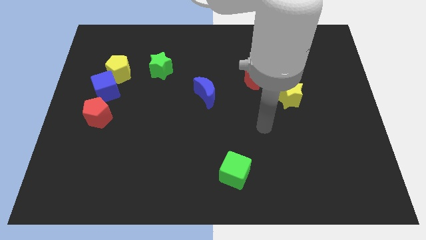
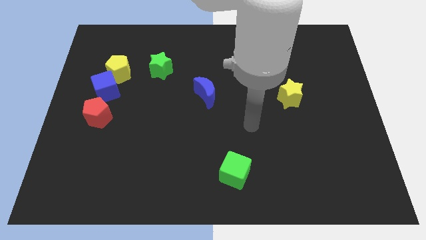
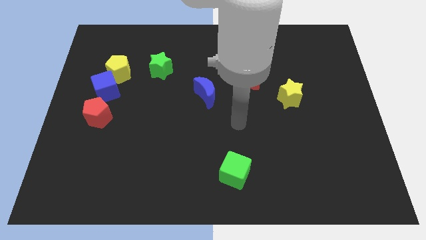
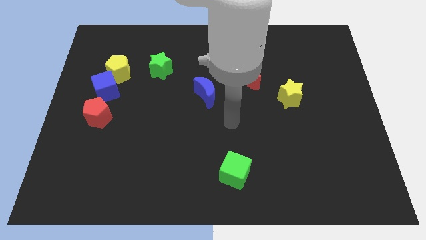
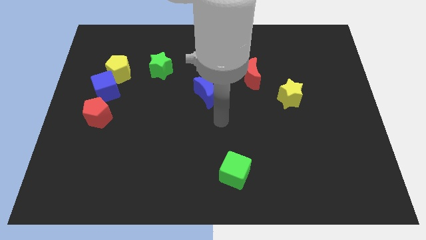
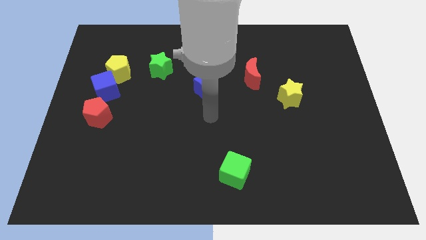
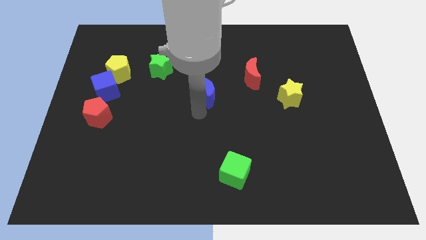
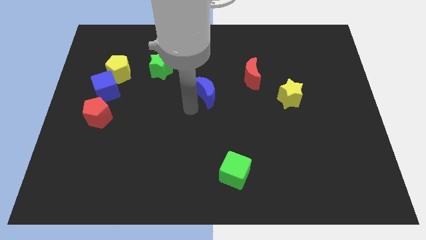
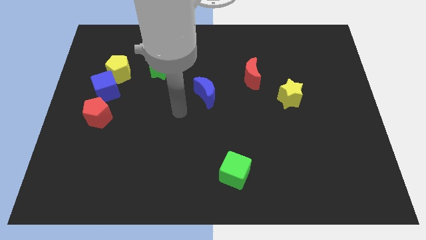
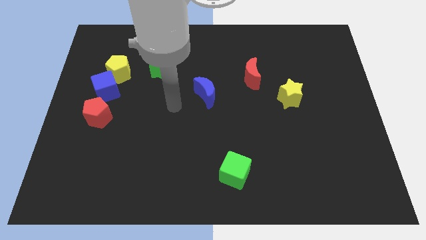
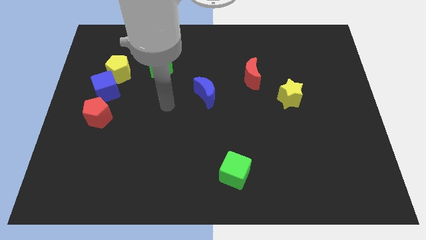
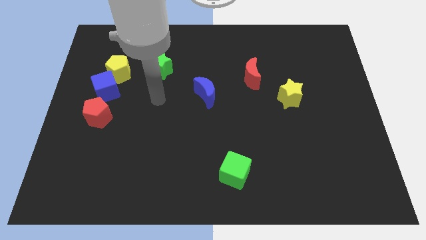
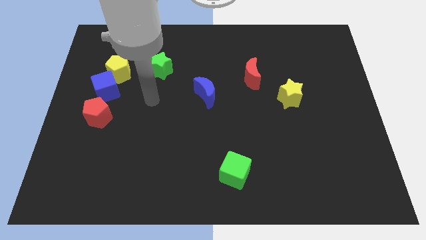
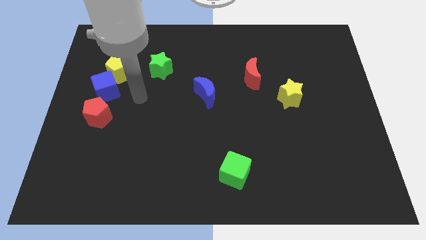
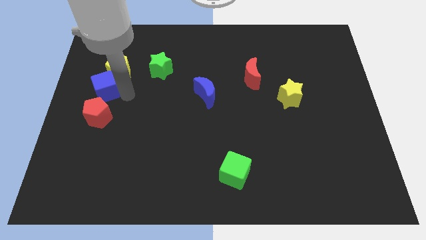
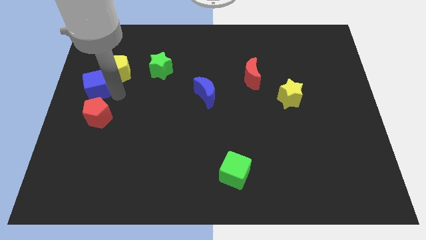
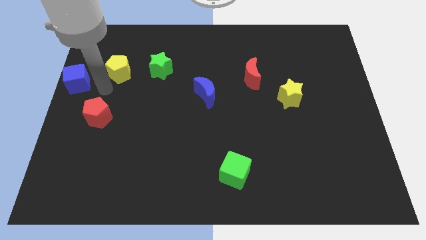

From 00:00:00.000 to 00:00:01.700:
move the yellow pentagon away from the blue cube

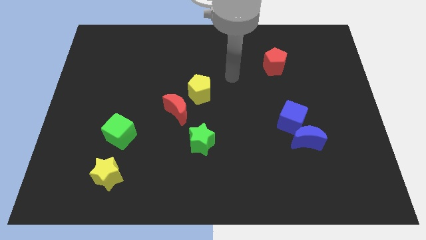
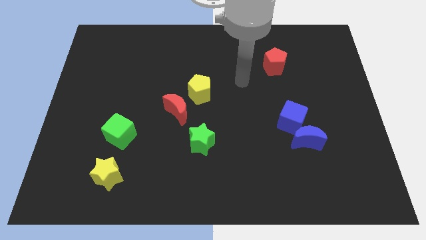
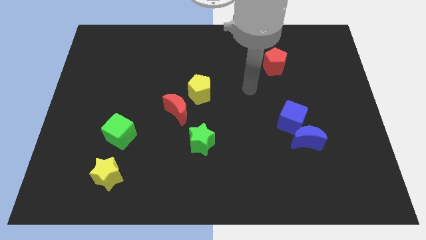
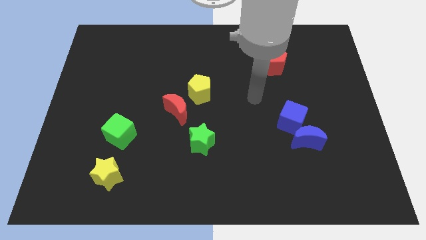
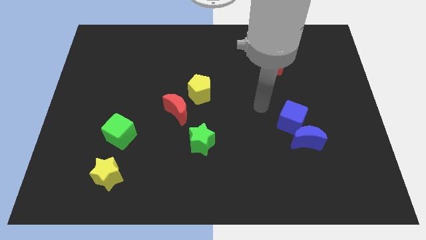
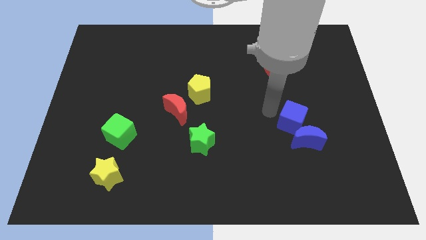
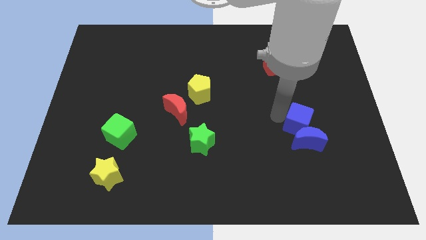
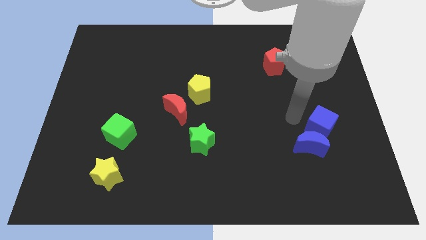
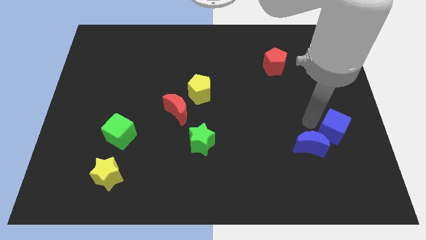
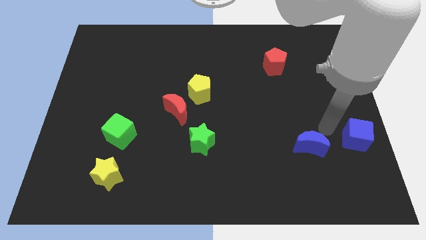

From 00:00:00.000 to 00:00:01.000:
separate the blue moon from the blue cube

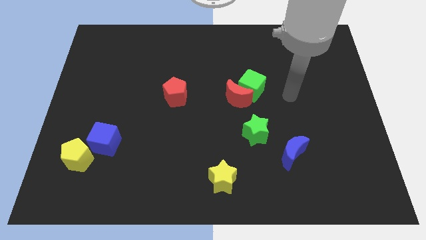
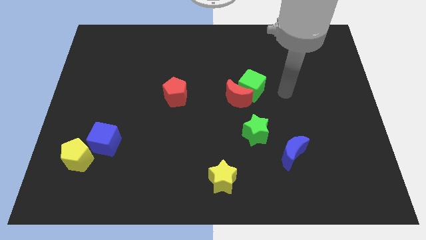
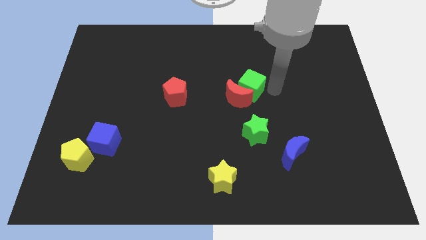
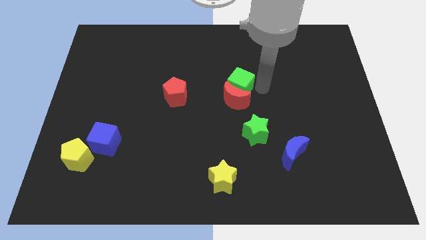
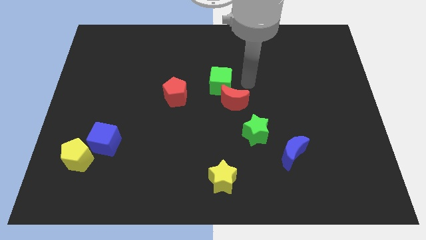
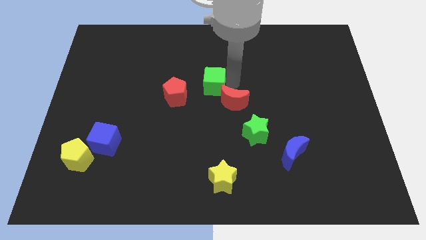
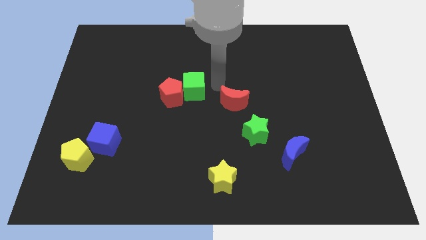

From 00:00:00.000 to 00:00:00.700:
move the red moon away from the green cube

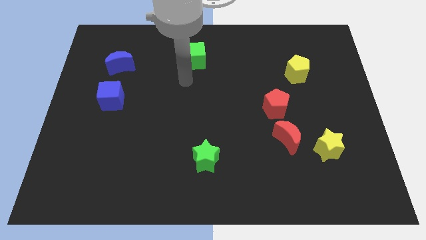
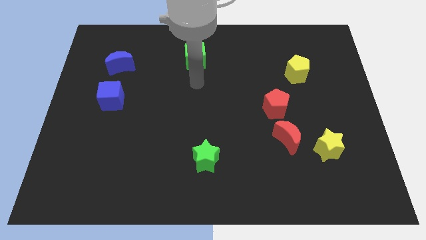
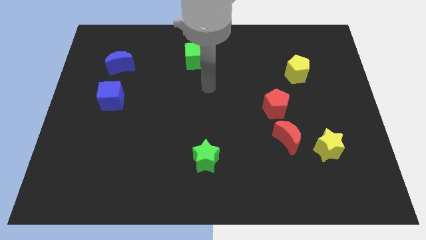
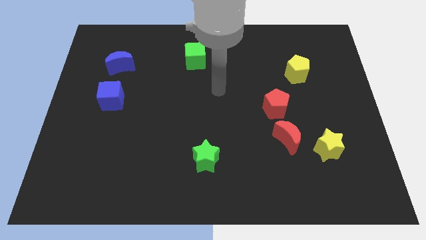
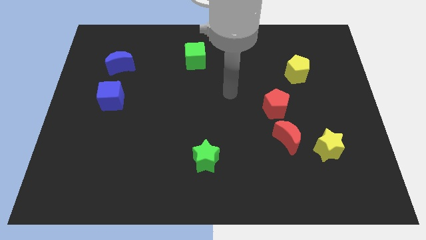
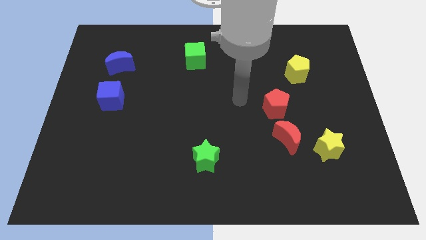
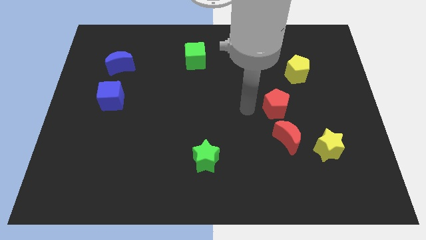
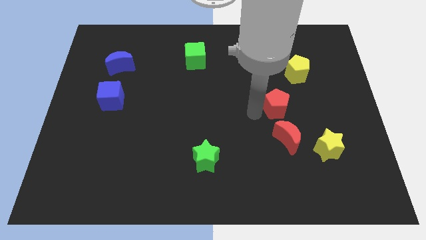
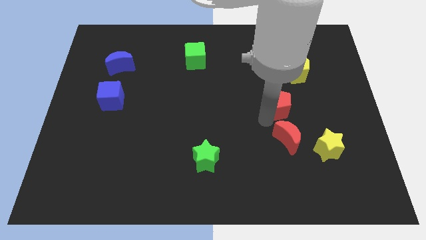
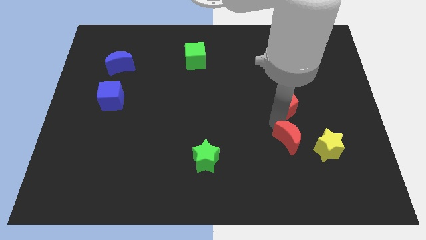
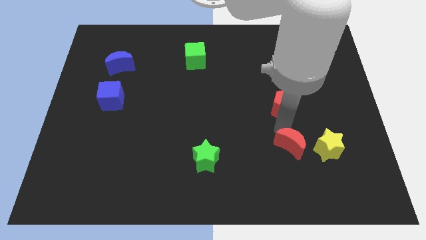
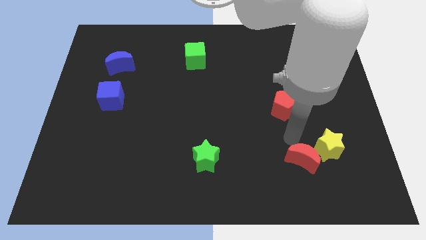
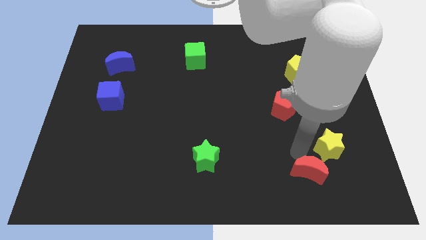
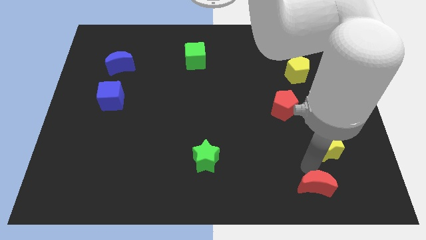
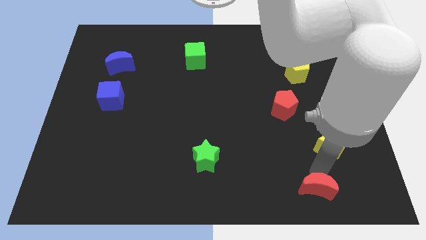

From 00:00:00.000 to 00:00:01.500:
move the yellow star away from the red moon

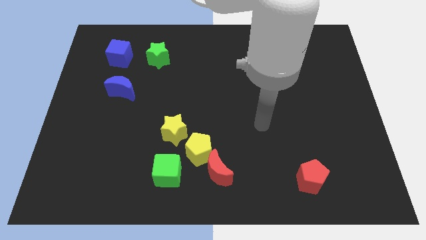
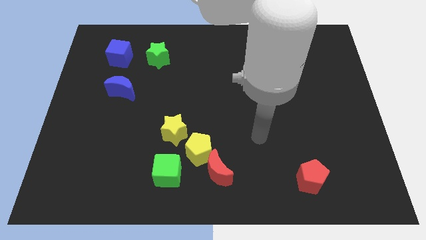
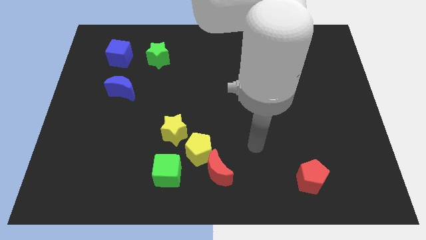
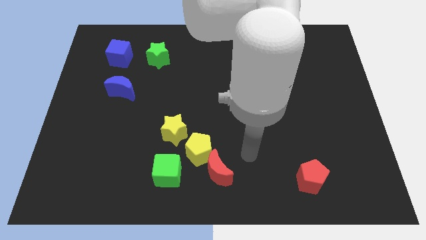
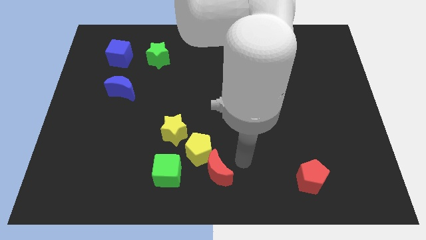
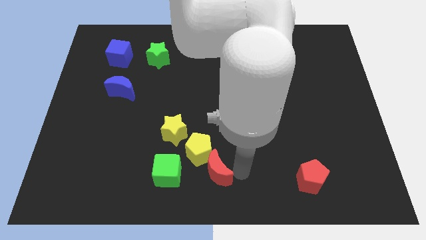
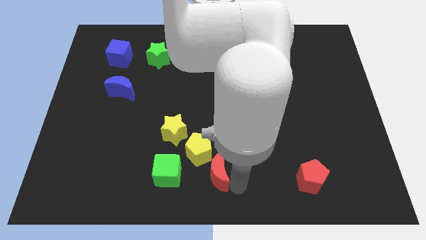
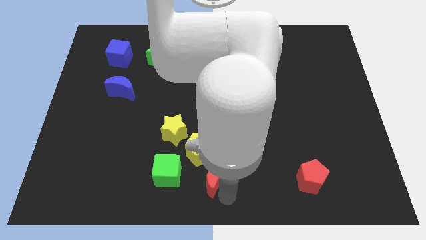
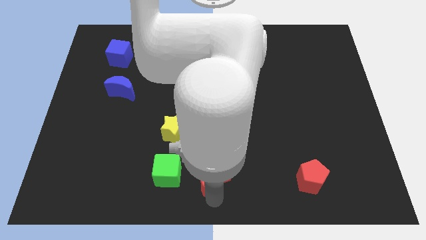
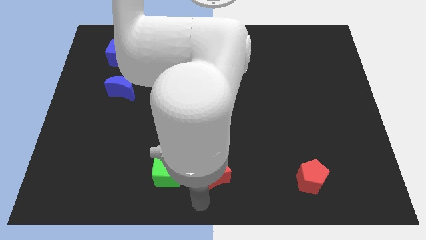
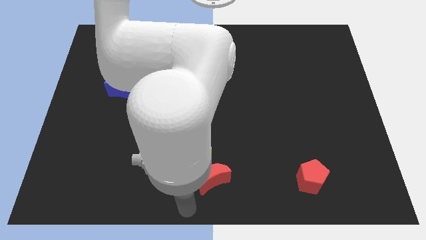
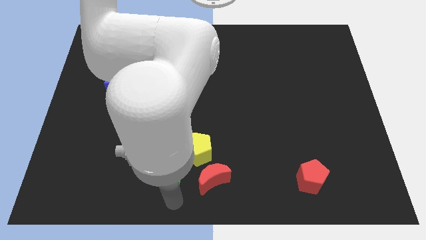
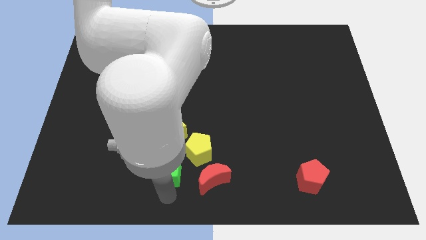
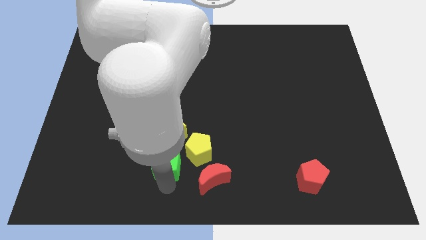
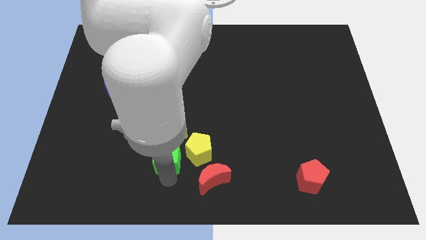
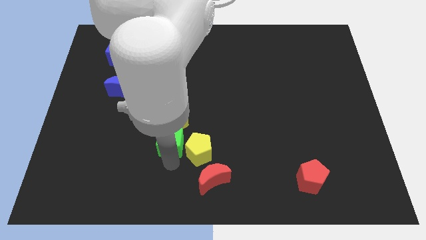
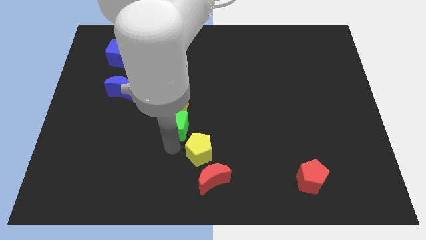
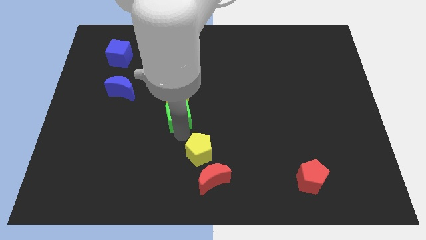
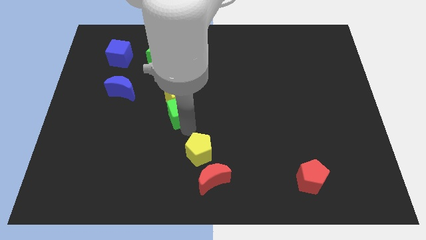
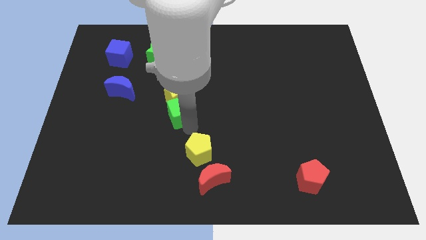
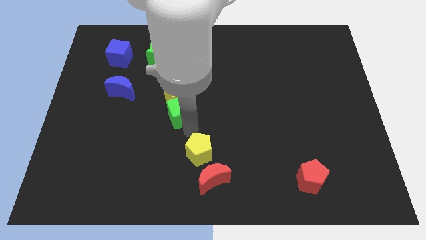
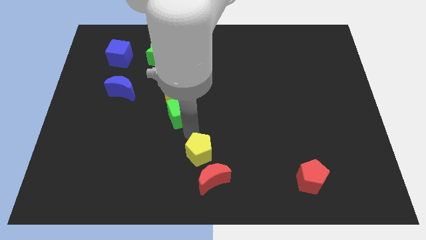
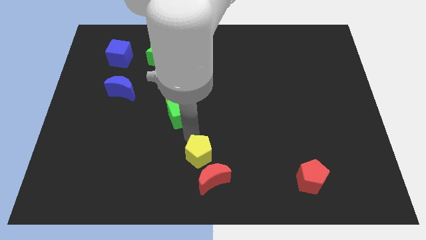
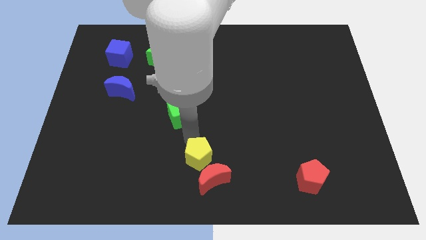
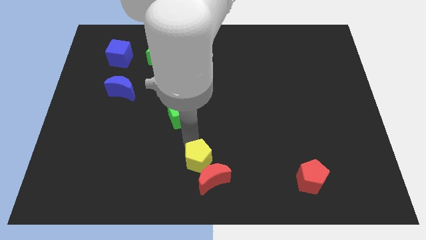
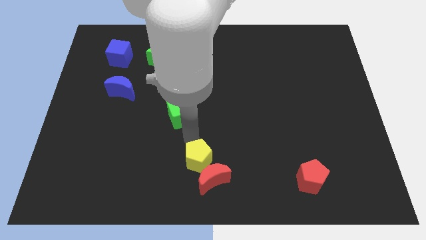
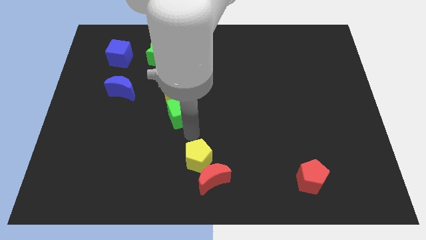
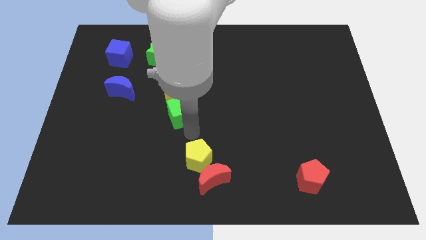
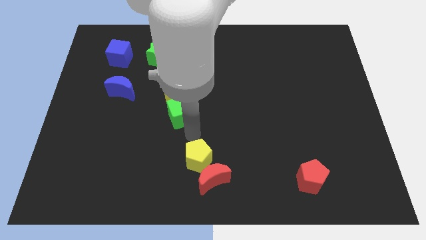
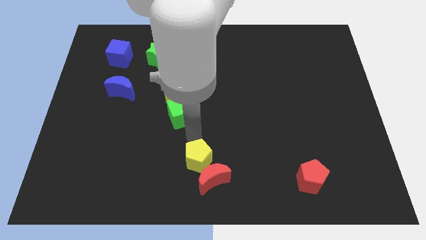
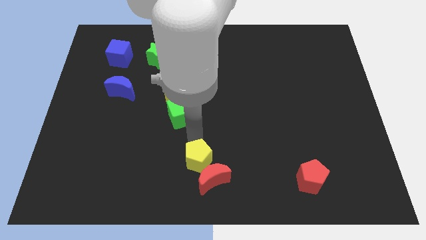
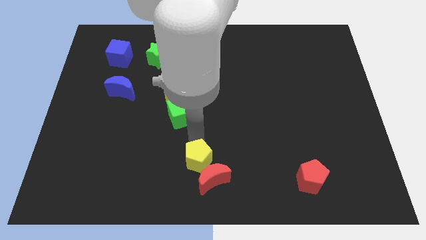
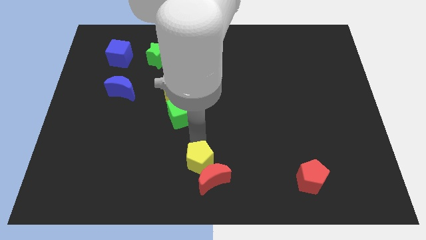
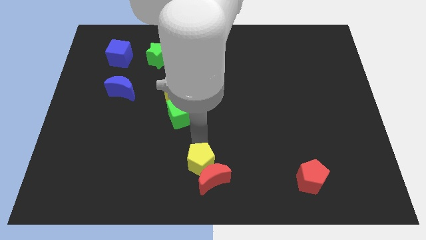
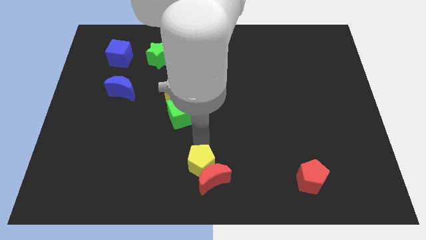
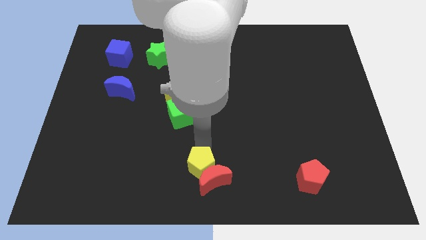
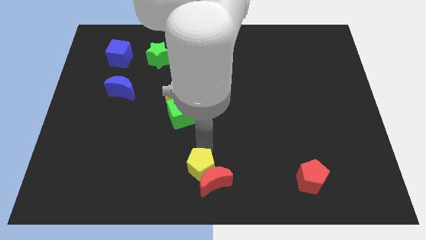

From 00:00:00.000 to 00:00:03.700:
separate the yellow pentagon from the red moon, yellow star, and green cube

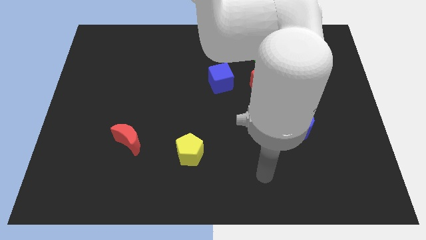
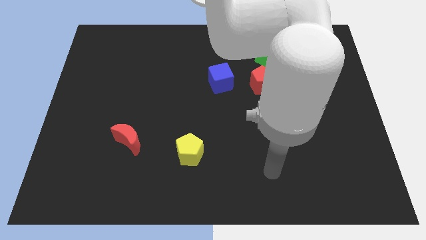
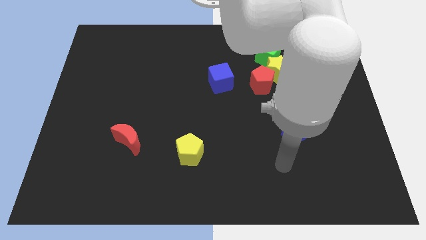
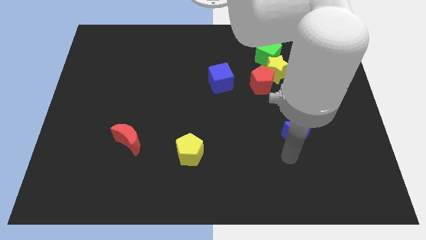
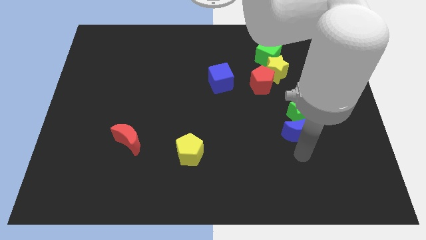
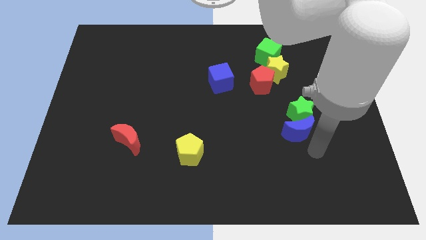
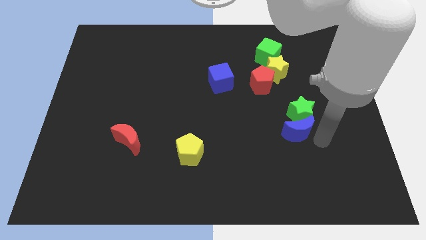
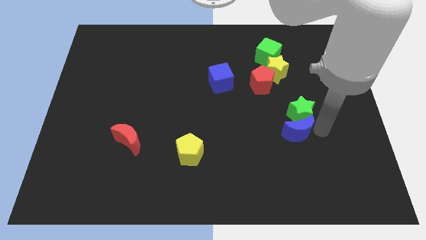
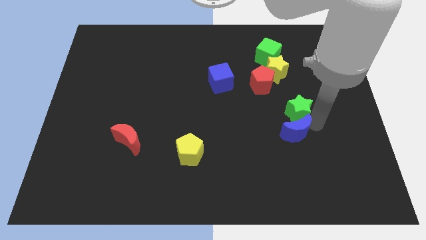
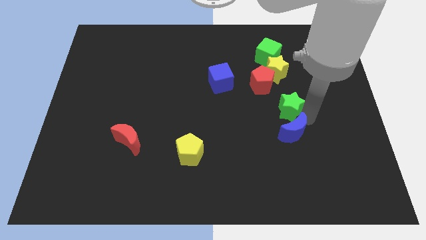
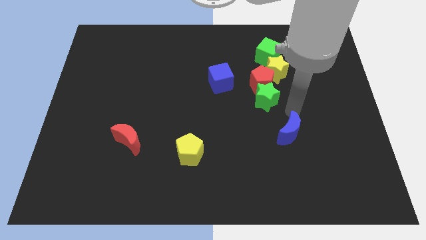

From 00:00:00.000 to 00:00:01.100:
pull the blue moon apart from the green star
